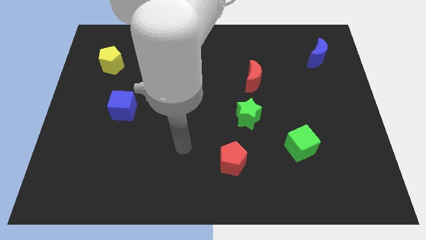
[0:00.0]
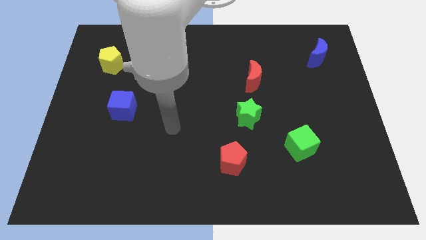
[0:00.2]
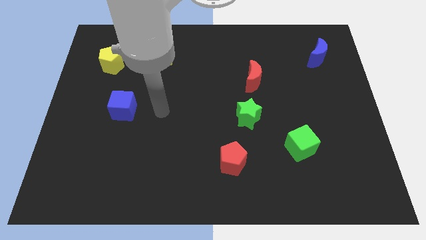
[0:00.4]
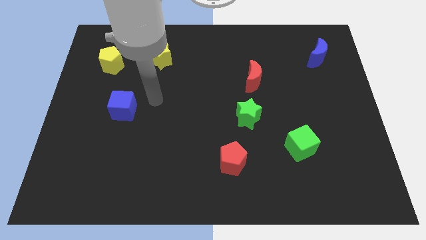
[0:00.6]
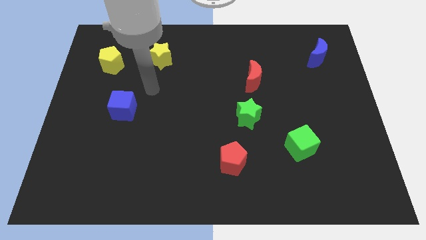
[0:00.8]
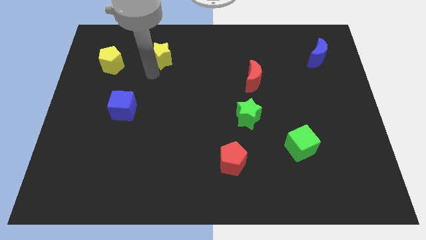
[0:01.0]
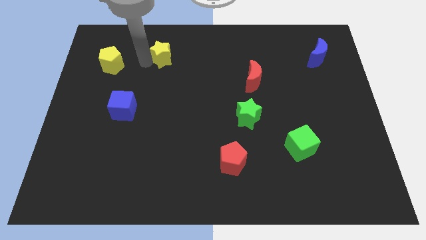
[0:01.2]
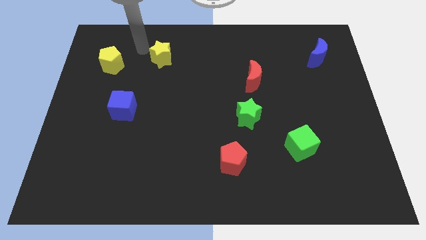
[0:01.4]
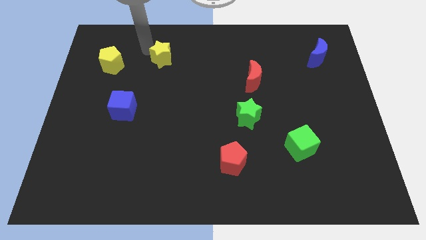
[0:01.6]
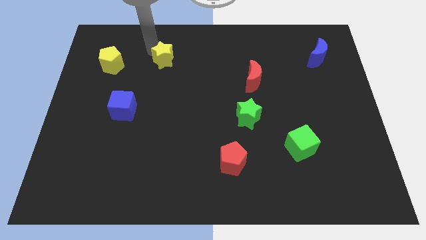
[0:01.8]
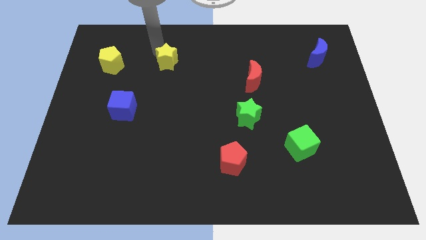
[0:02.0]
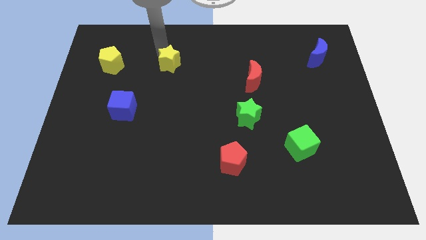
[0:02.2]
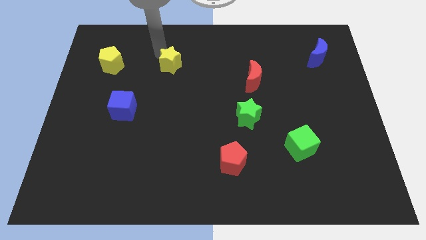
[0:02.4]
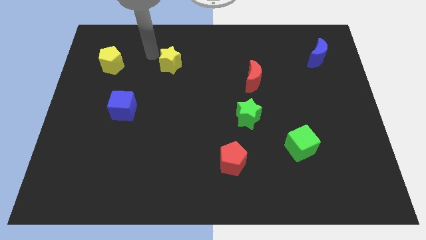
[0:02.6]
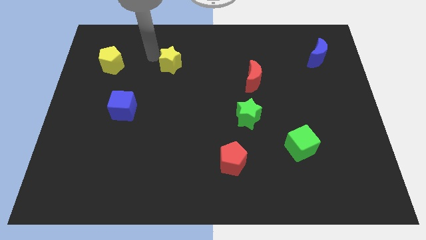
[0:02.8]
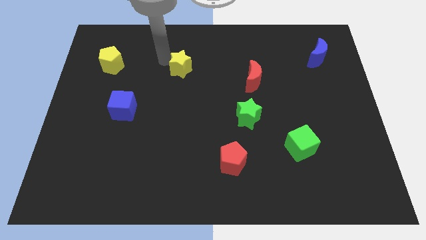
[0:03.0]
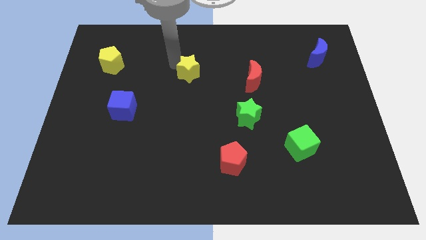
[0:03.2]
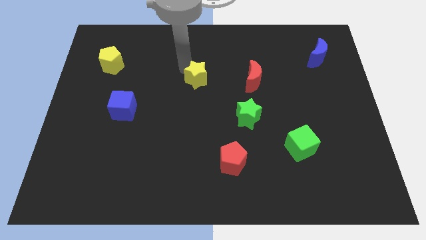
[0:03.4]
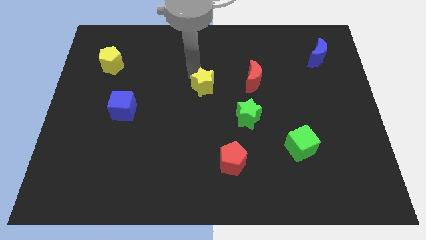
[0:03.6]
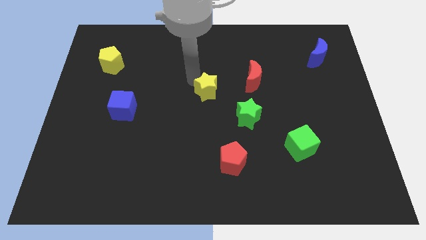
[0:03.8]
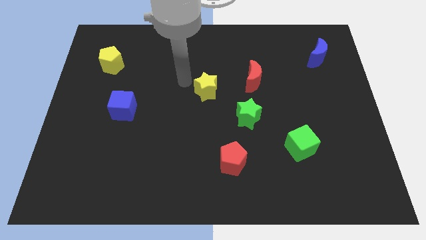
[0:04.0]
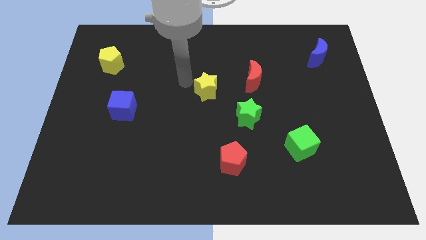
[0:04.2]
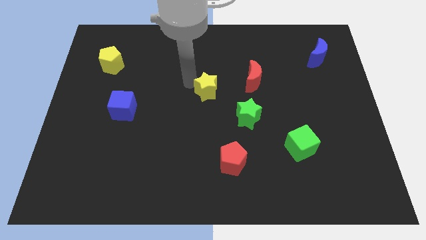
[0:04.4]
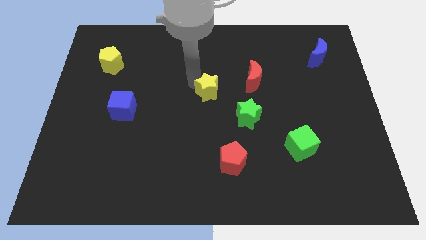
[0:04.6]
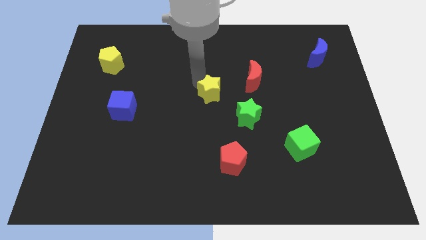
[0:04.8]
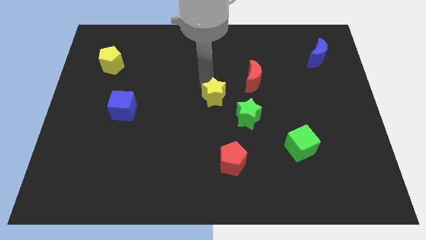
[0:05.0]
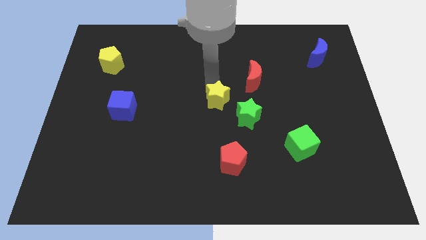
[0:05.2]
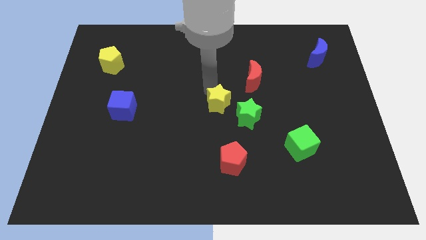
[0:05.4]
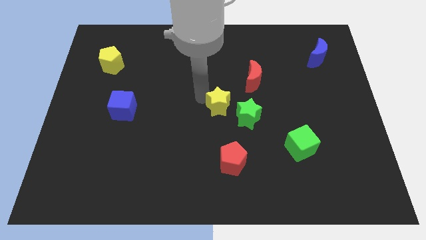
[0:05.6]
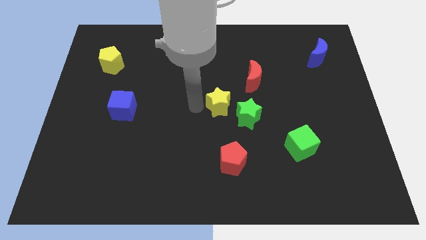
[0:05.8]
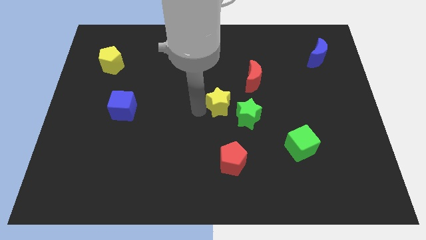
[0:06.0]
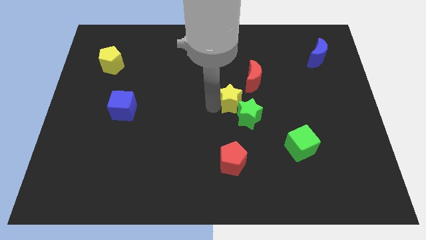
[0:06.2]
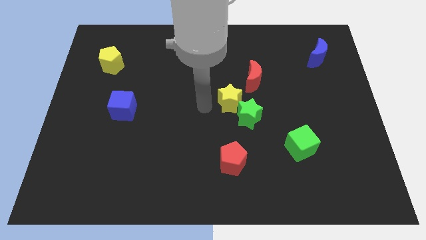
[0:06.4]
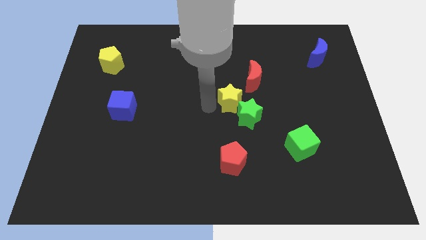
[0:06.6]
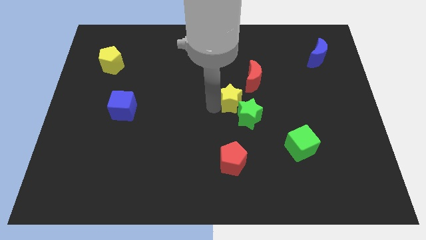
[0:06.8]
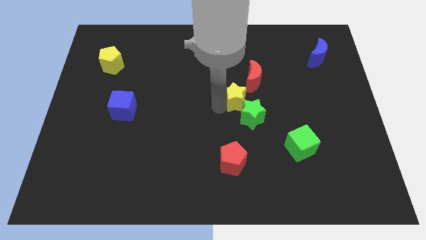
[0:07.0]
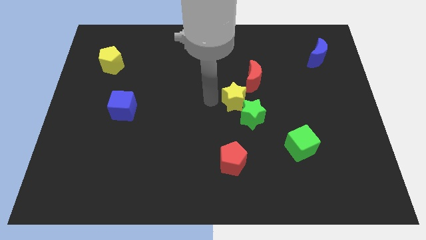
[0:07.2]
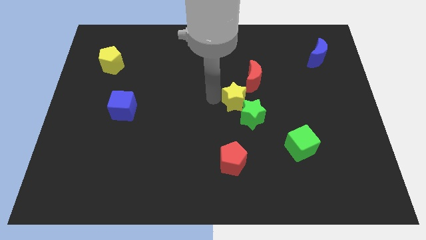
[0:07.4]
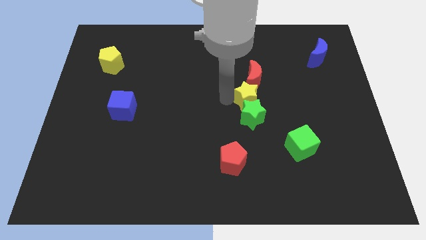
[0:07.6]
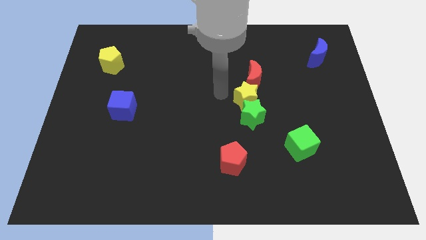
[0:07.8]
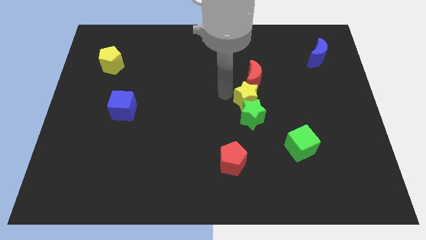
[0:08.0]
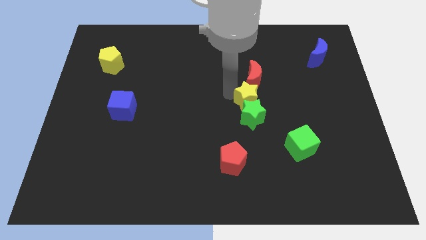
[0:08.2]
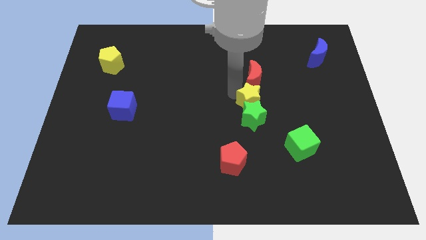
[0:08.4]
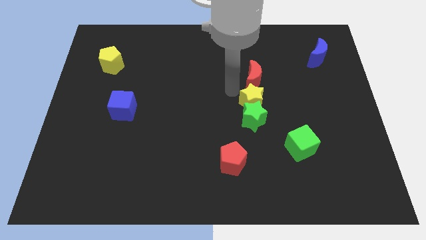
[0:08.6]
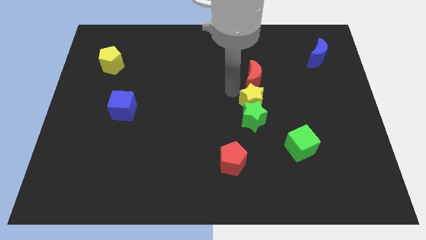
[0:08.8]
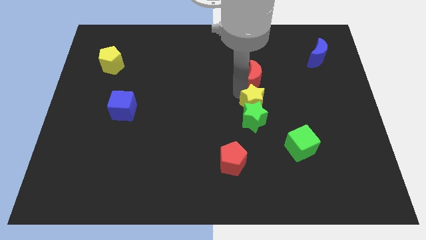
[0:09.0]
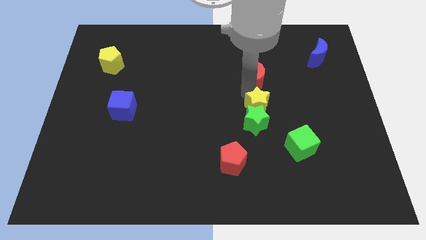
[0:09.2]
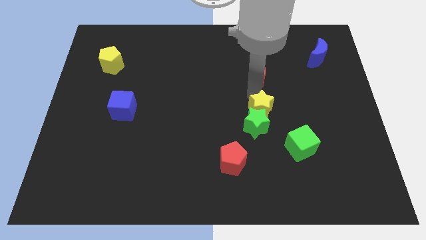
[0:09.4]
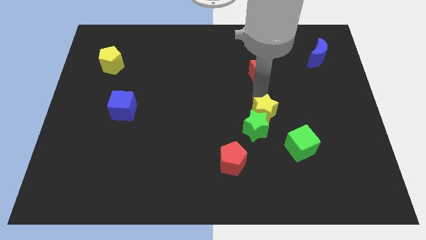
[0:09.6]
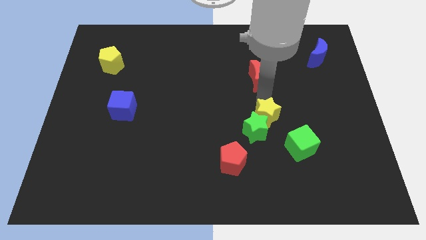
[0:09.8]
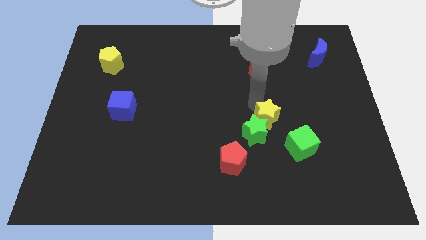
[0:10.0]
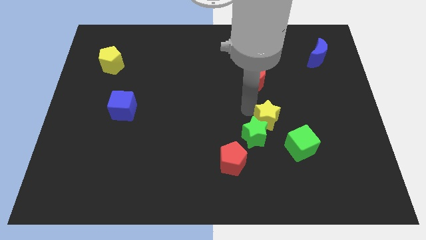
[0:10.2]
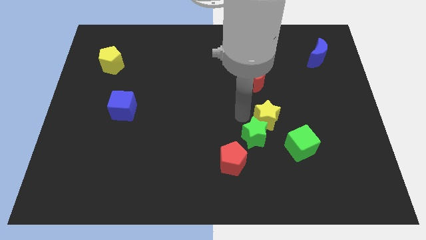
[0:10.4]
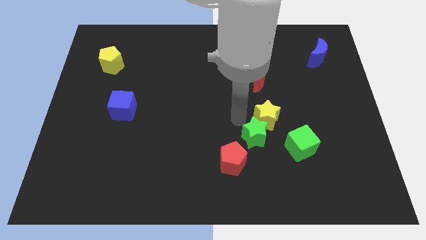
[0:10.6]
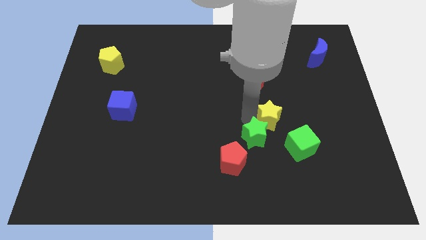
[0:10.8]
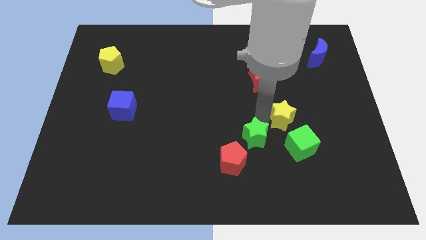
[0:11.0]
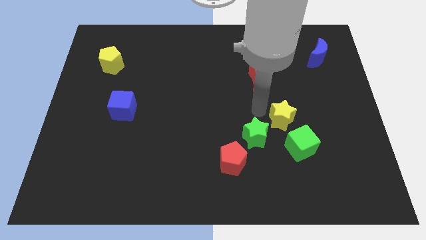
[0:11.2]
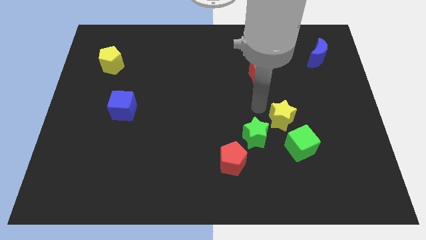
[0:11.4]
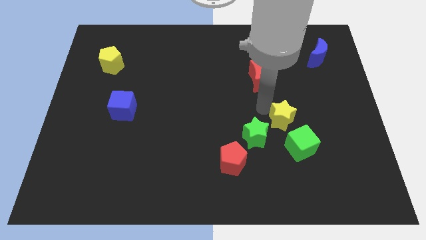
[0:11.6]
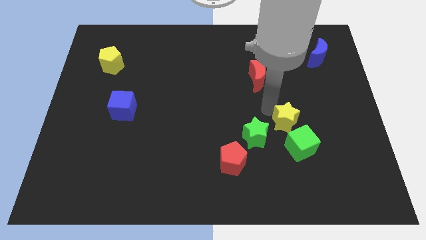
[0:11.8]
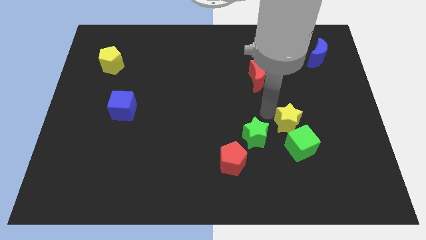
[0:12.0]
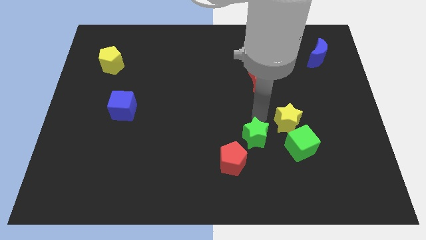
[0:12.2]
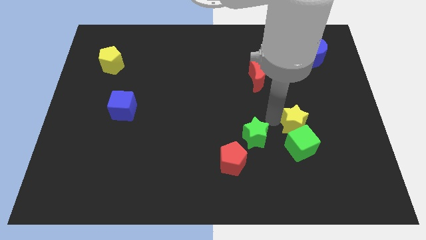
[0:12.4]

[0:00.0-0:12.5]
put the yellow star diagonally up and to the right of the green cube
